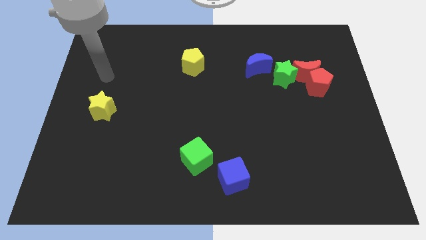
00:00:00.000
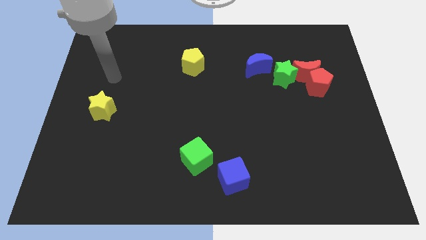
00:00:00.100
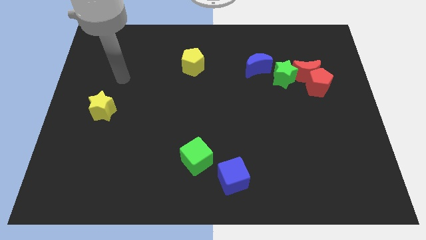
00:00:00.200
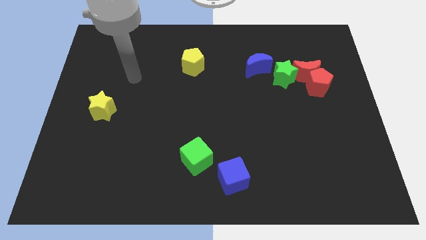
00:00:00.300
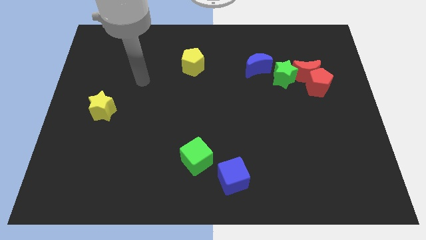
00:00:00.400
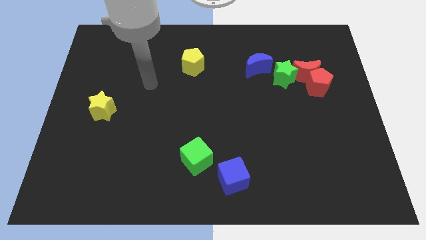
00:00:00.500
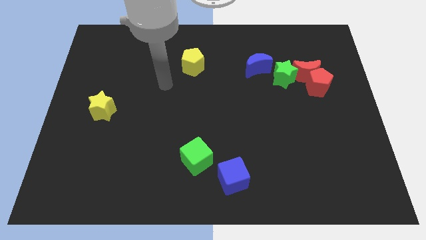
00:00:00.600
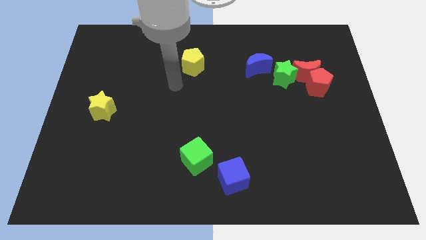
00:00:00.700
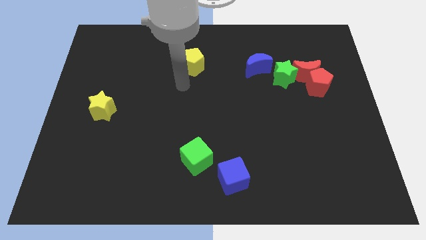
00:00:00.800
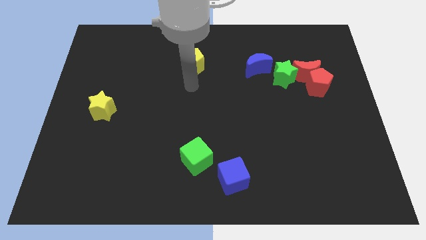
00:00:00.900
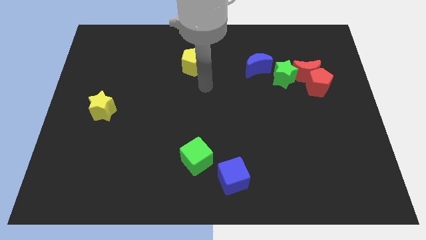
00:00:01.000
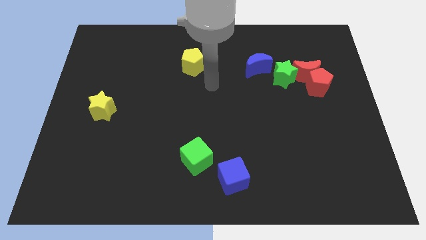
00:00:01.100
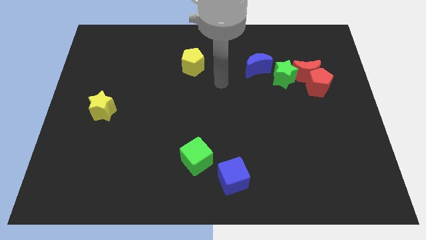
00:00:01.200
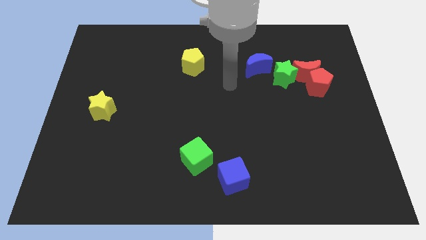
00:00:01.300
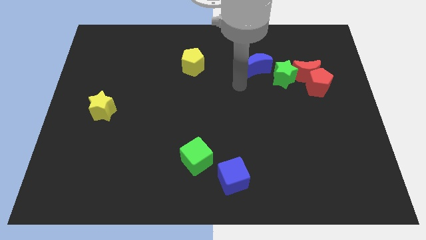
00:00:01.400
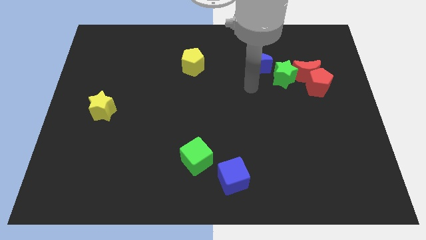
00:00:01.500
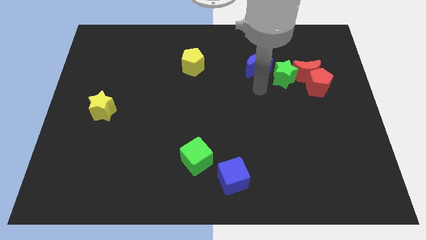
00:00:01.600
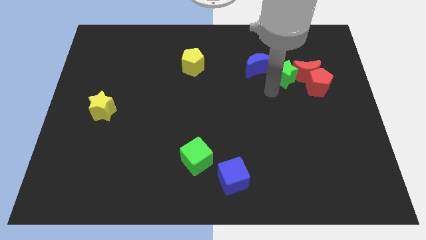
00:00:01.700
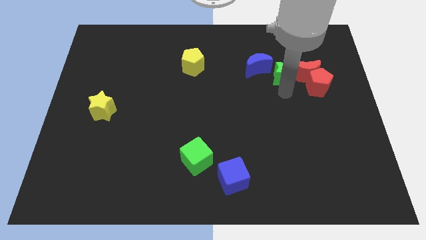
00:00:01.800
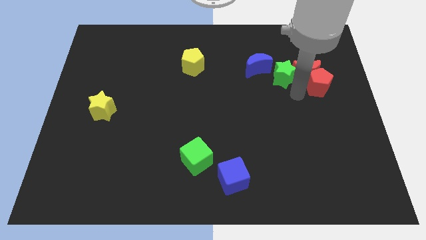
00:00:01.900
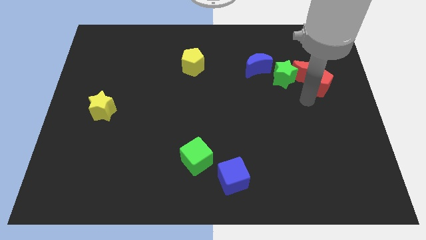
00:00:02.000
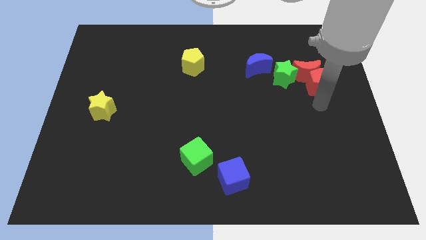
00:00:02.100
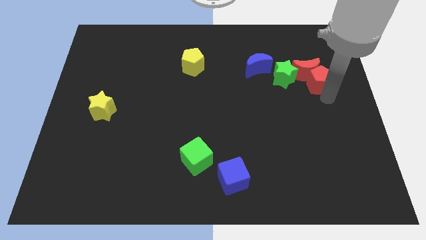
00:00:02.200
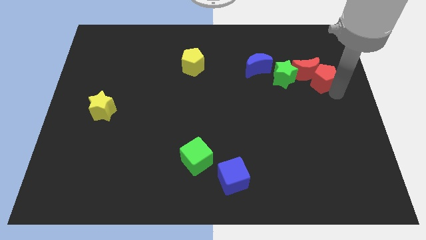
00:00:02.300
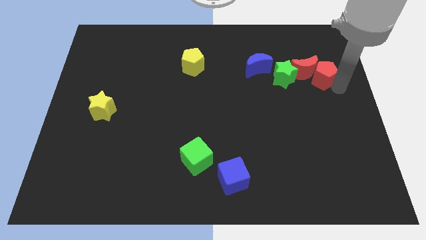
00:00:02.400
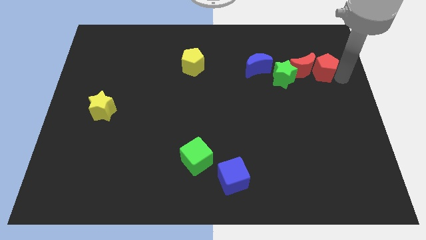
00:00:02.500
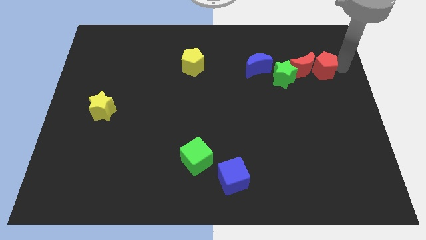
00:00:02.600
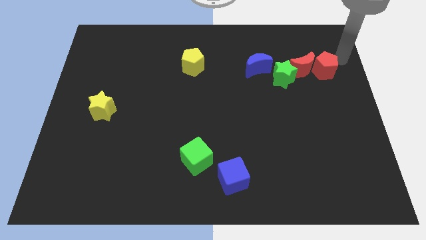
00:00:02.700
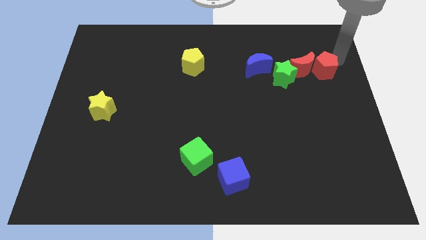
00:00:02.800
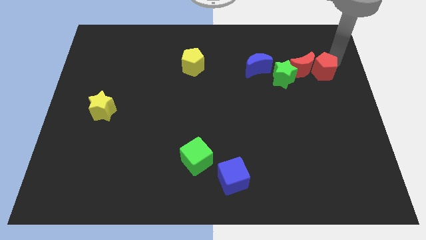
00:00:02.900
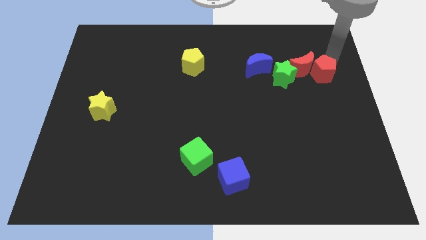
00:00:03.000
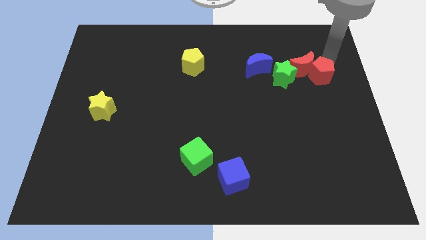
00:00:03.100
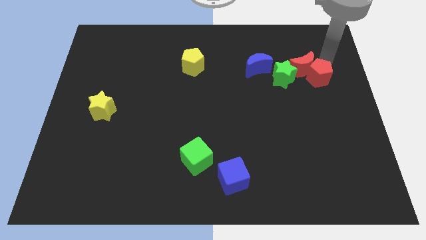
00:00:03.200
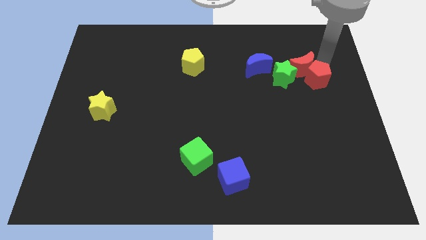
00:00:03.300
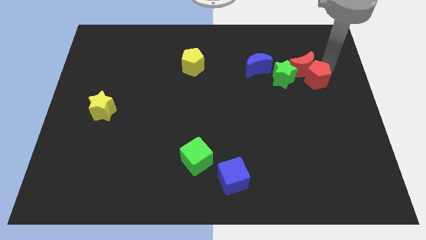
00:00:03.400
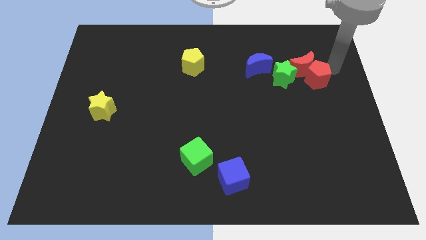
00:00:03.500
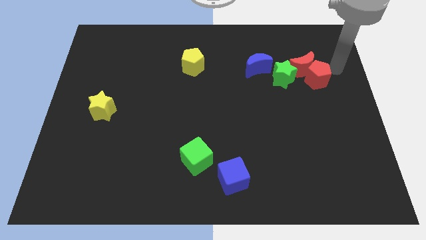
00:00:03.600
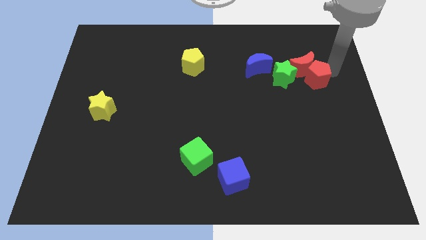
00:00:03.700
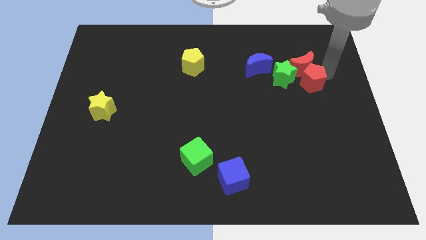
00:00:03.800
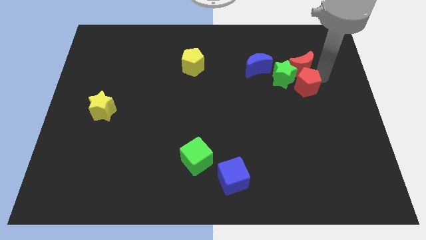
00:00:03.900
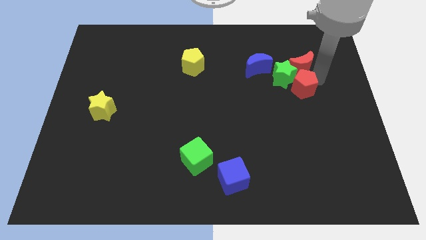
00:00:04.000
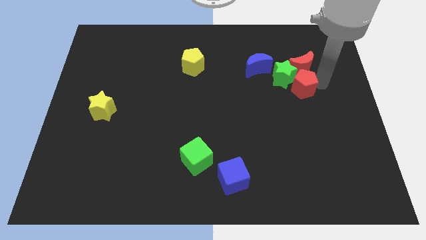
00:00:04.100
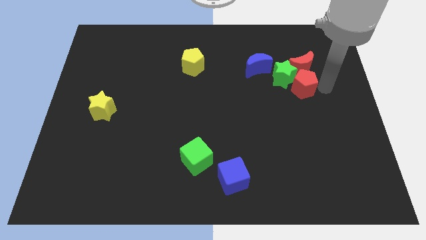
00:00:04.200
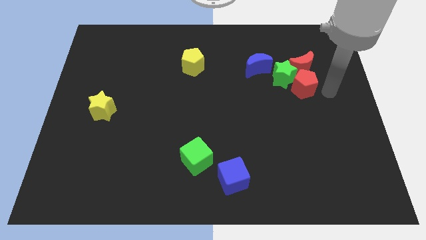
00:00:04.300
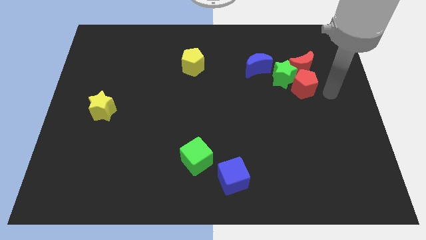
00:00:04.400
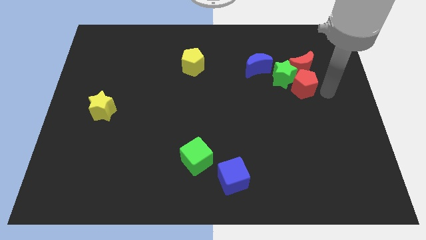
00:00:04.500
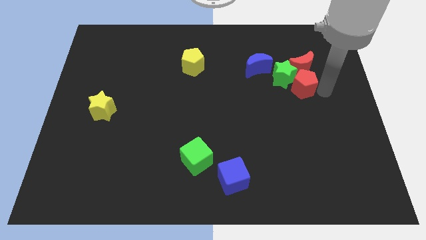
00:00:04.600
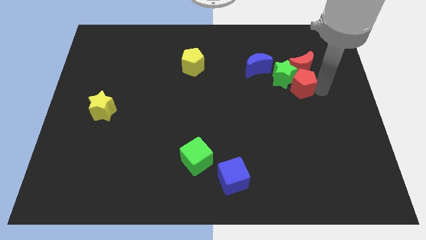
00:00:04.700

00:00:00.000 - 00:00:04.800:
slide the red pentagon to the bottom right side of the blue moon

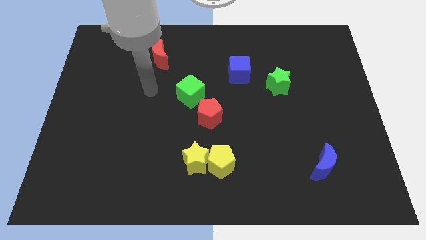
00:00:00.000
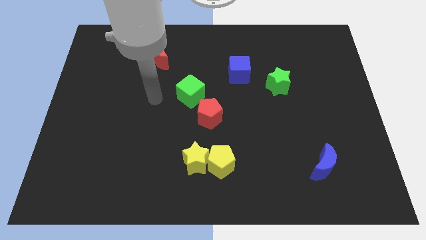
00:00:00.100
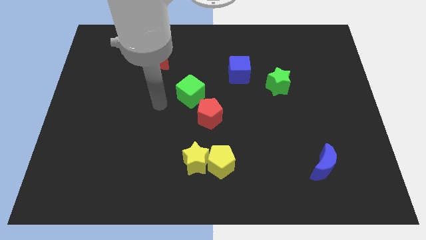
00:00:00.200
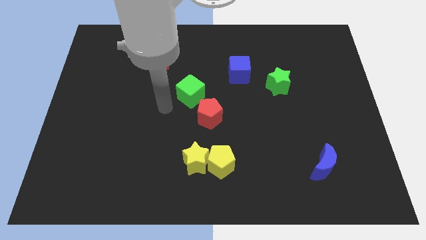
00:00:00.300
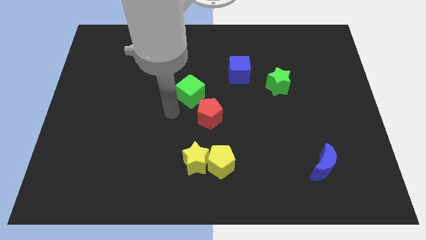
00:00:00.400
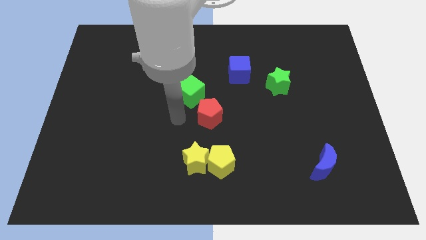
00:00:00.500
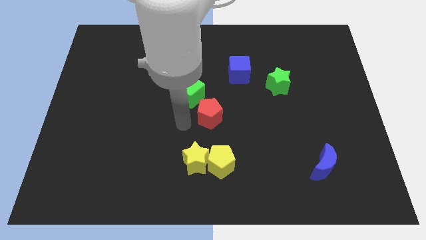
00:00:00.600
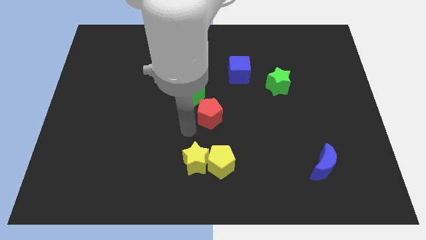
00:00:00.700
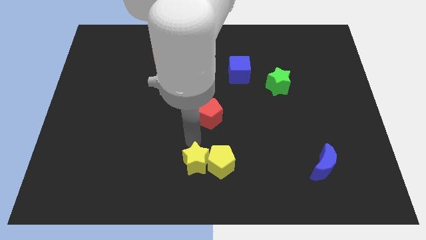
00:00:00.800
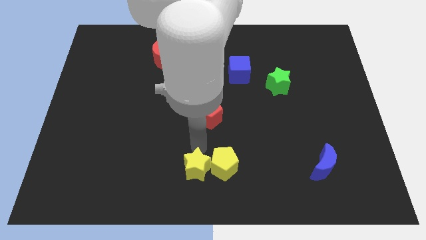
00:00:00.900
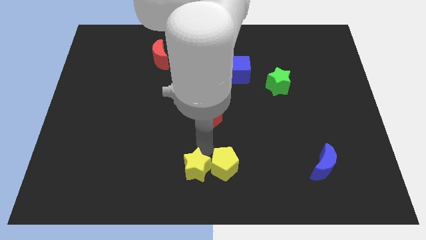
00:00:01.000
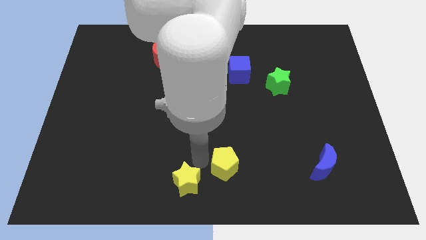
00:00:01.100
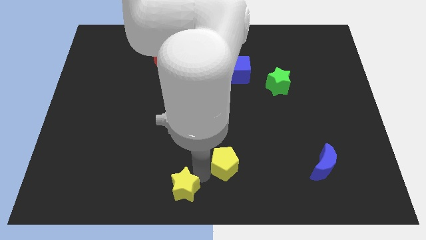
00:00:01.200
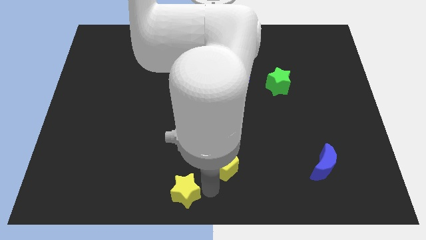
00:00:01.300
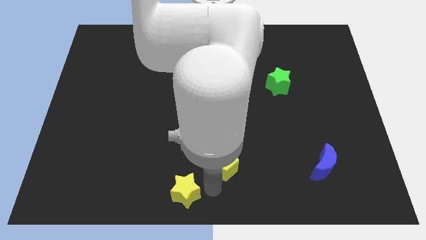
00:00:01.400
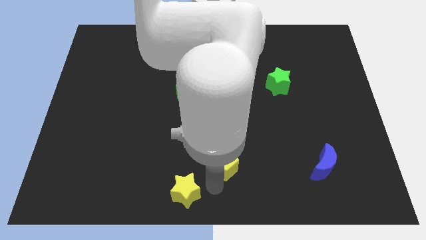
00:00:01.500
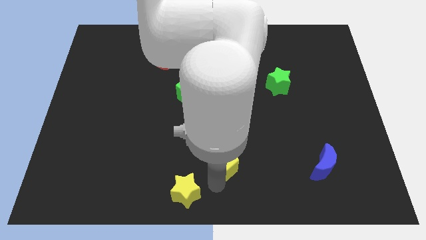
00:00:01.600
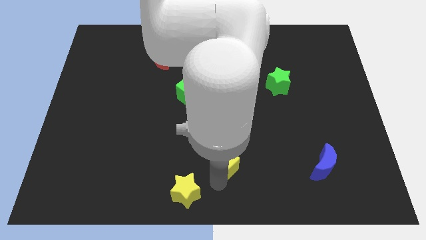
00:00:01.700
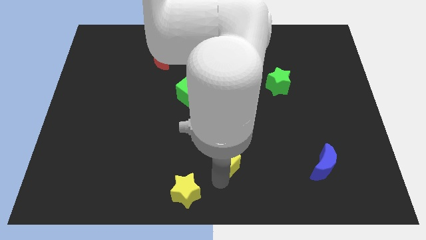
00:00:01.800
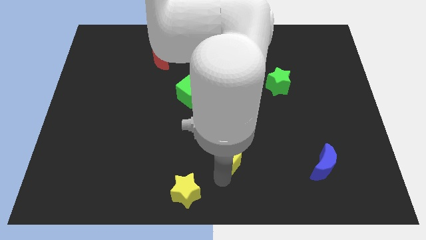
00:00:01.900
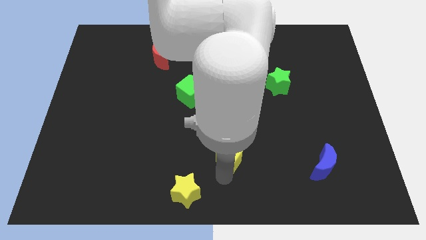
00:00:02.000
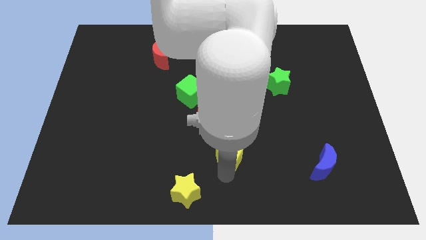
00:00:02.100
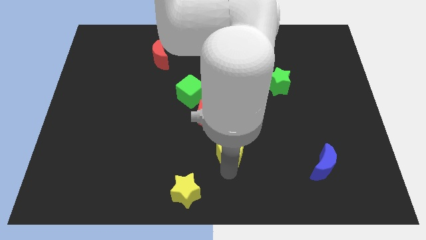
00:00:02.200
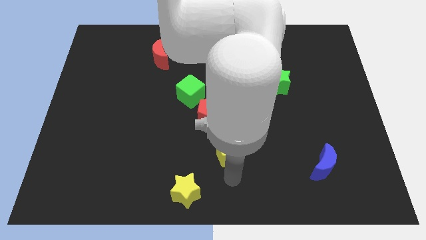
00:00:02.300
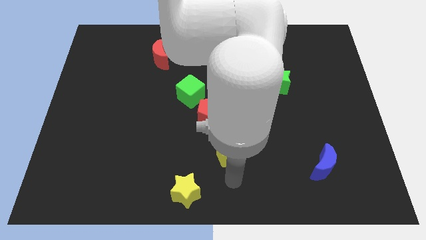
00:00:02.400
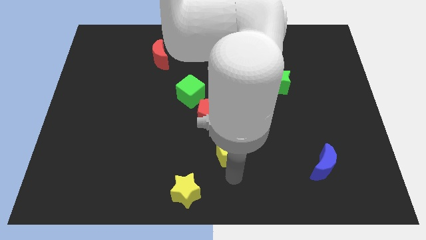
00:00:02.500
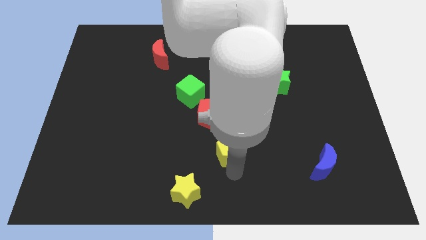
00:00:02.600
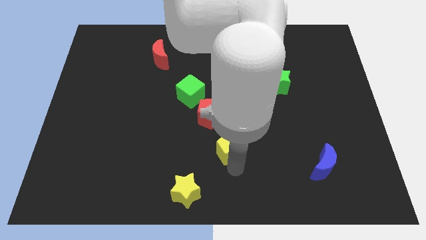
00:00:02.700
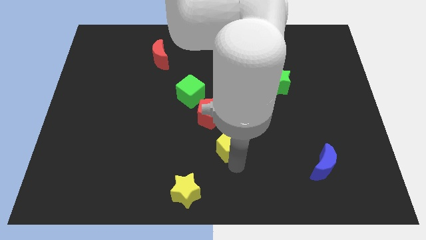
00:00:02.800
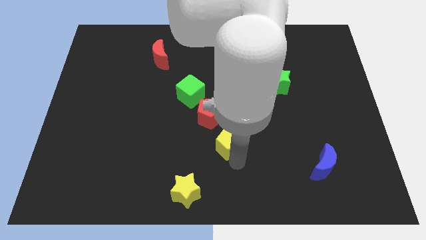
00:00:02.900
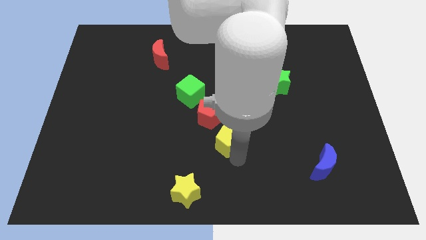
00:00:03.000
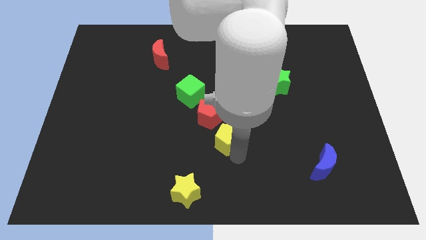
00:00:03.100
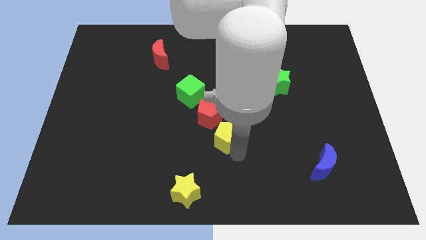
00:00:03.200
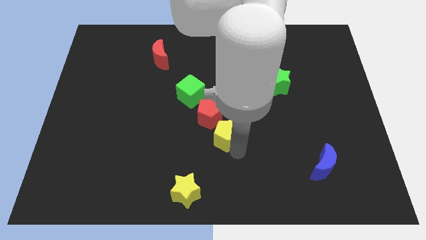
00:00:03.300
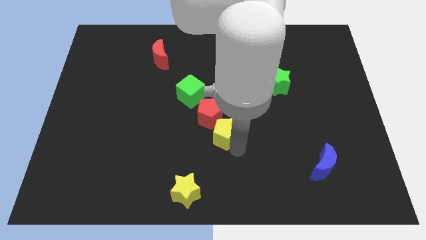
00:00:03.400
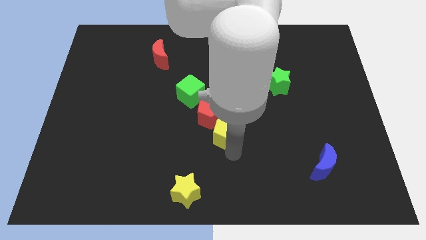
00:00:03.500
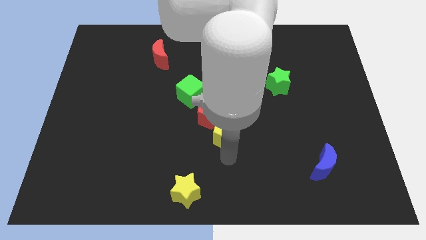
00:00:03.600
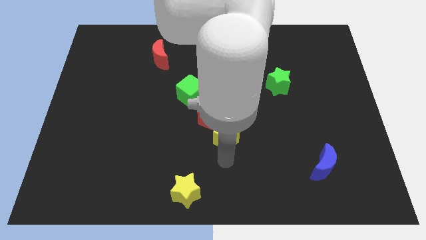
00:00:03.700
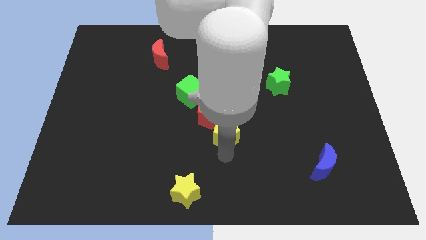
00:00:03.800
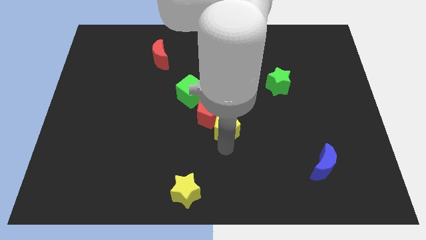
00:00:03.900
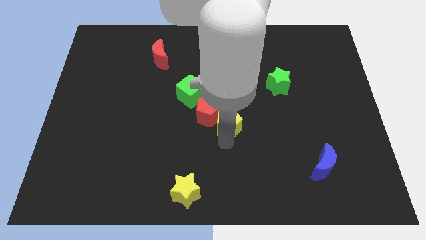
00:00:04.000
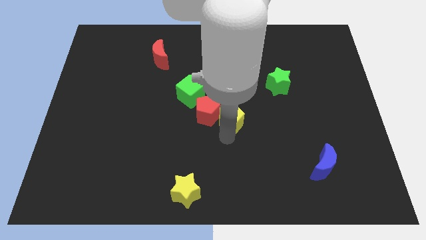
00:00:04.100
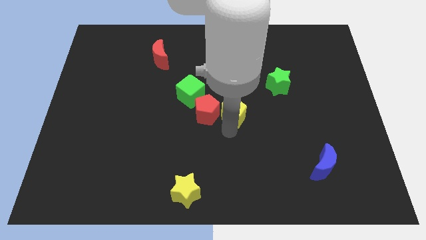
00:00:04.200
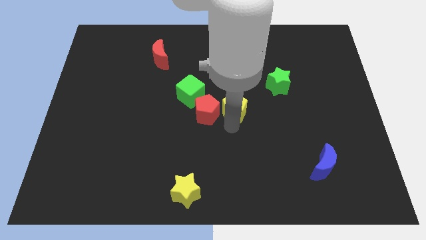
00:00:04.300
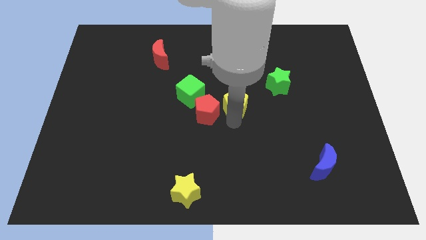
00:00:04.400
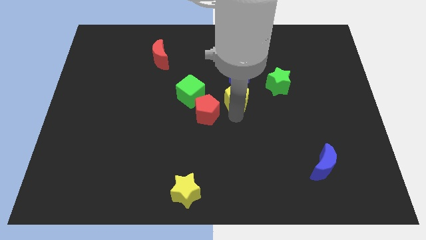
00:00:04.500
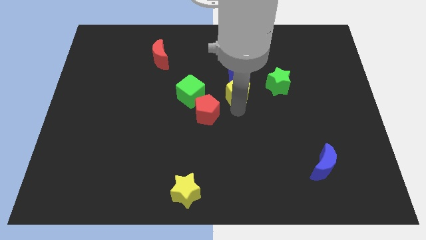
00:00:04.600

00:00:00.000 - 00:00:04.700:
slide the yellow pentagon to the bottom left side of the blue cube
